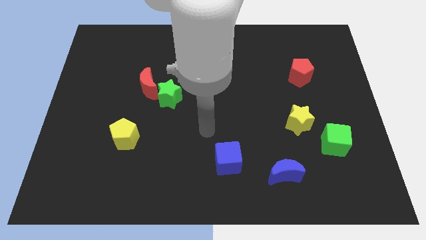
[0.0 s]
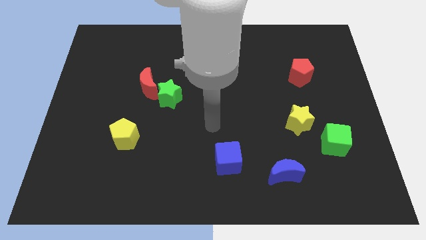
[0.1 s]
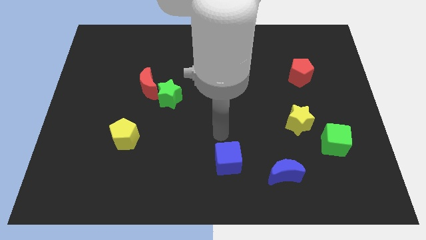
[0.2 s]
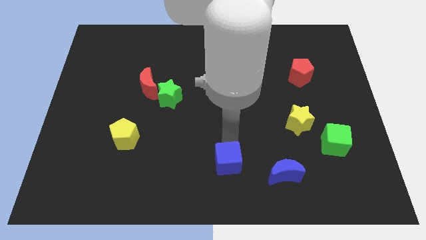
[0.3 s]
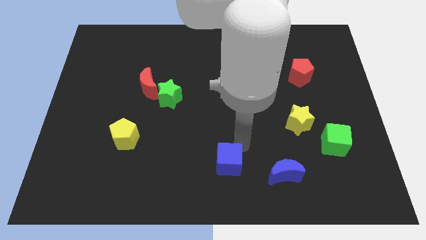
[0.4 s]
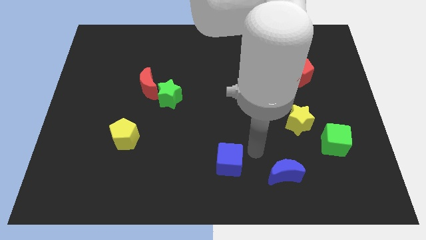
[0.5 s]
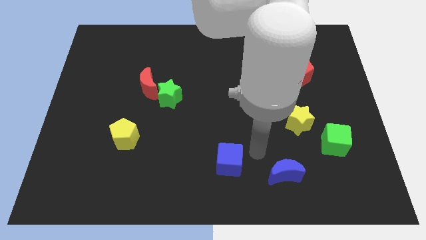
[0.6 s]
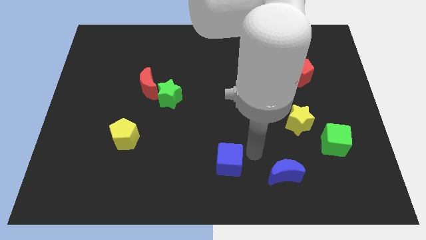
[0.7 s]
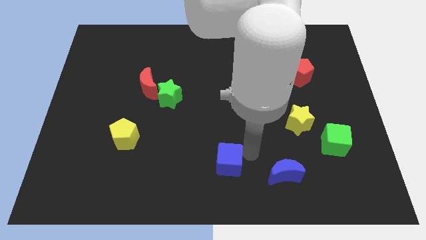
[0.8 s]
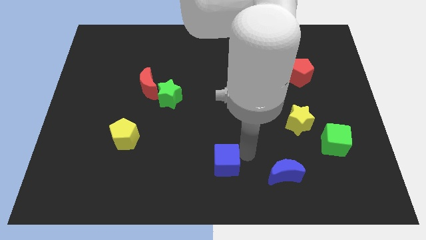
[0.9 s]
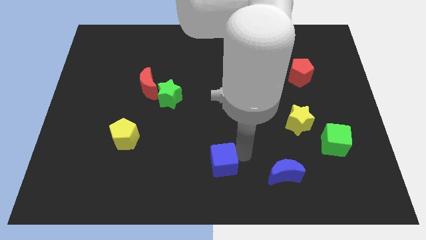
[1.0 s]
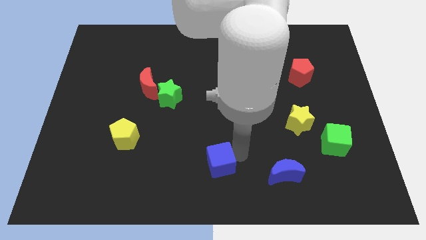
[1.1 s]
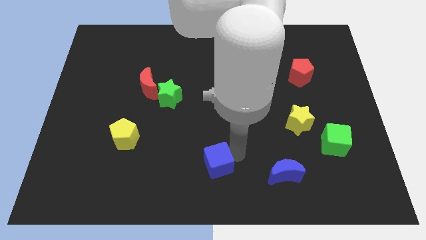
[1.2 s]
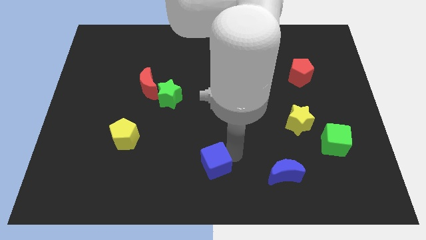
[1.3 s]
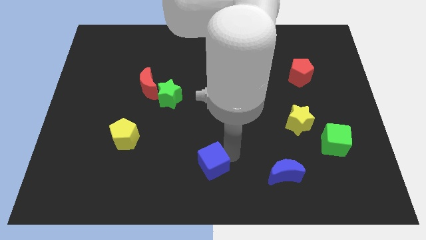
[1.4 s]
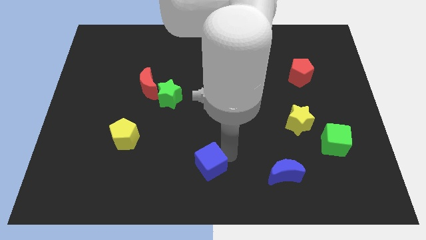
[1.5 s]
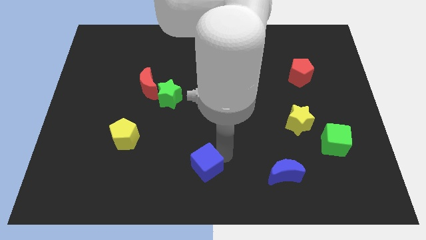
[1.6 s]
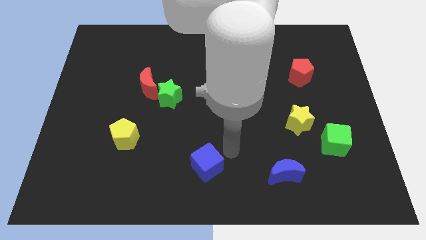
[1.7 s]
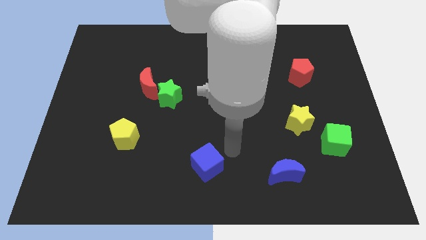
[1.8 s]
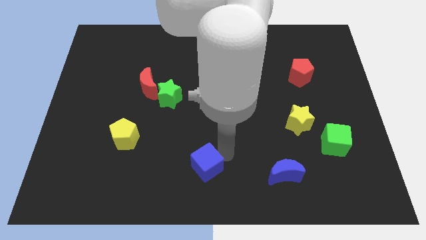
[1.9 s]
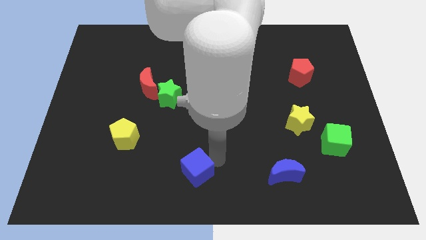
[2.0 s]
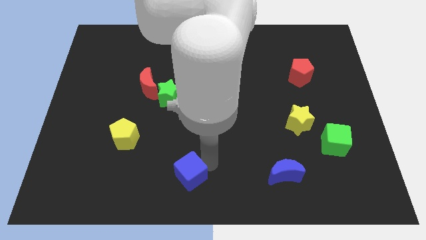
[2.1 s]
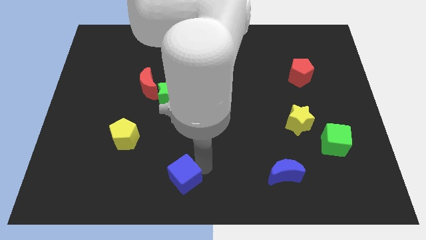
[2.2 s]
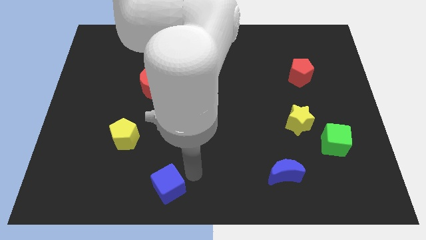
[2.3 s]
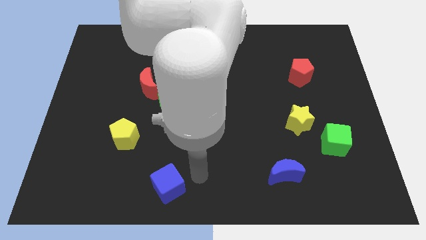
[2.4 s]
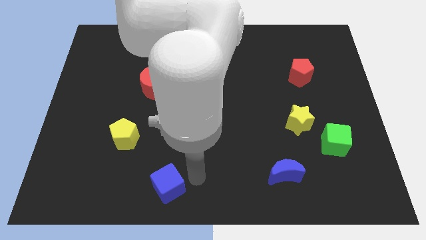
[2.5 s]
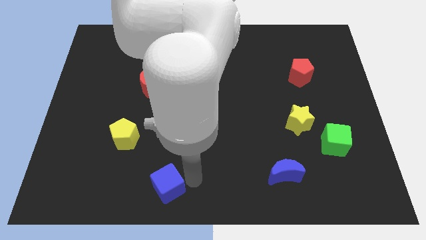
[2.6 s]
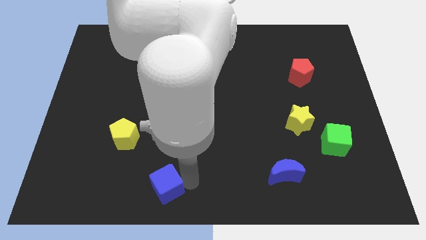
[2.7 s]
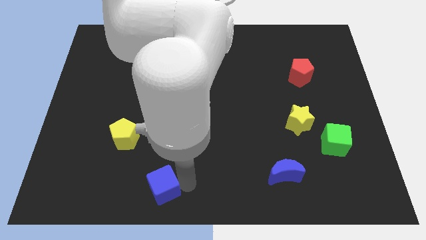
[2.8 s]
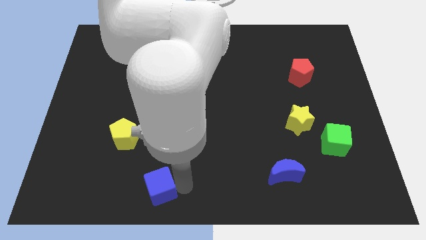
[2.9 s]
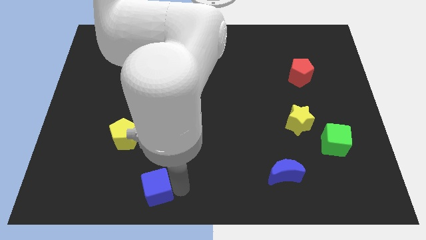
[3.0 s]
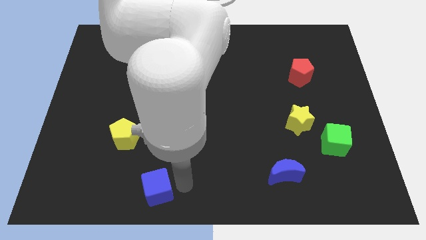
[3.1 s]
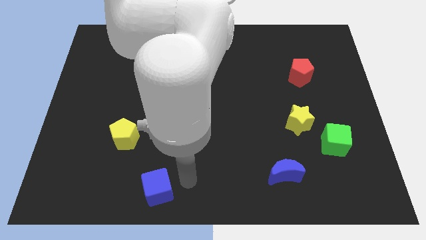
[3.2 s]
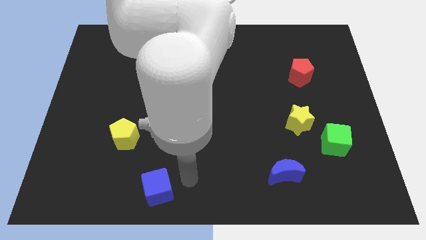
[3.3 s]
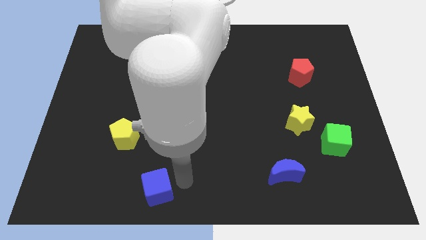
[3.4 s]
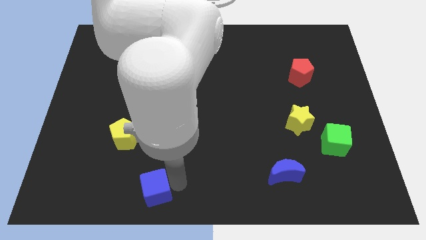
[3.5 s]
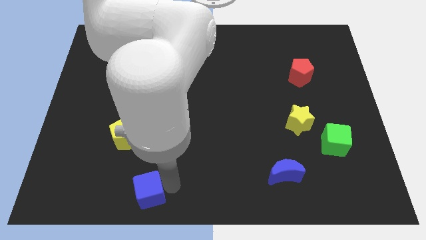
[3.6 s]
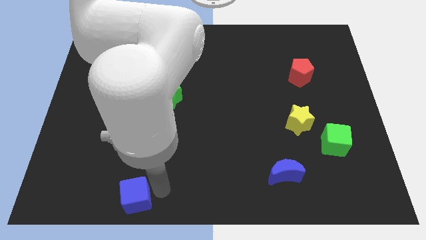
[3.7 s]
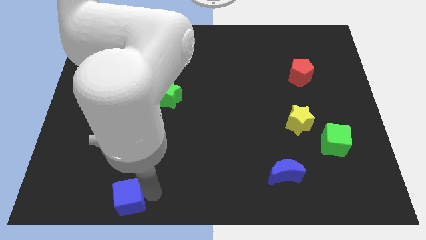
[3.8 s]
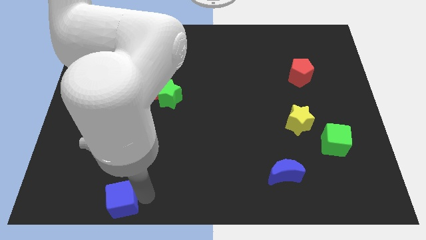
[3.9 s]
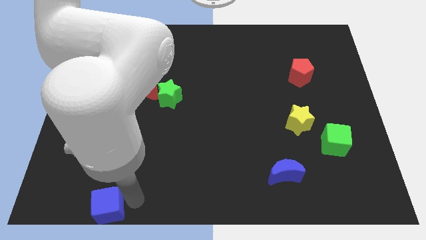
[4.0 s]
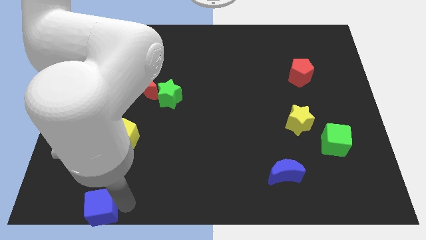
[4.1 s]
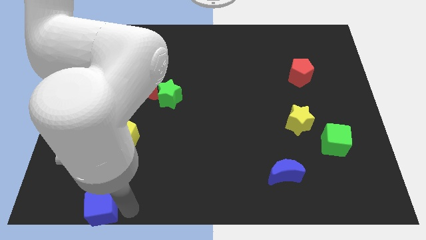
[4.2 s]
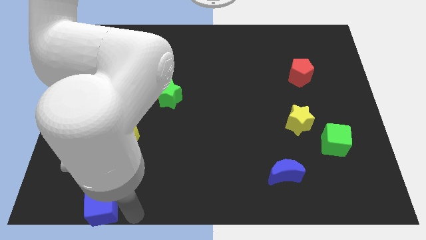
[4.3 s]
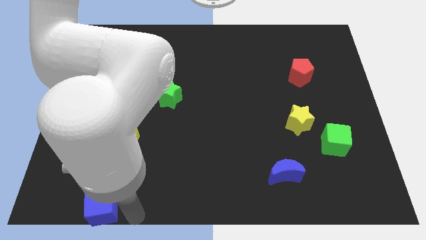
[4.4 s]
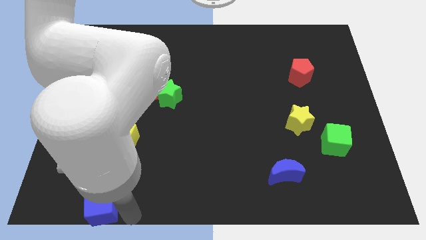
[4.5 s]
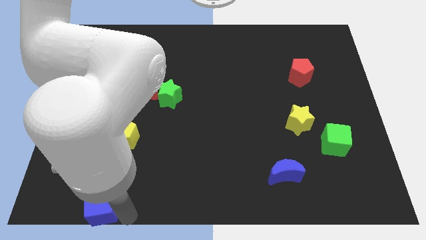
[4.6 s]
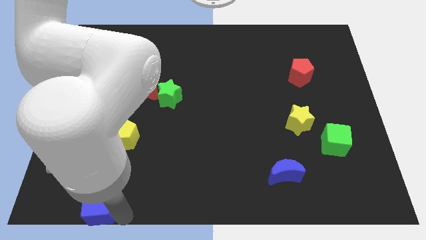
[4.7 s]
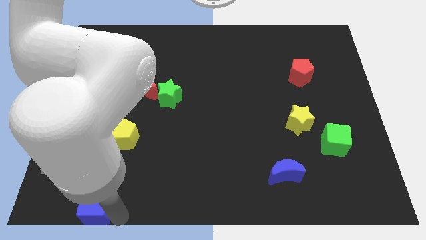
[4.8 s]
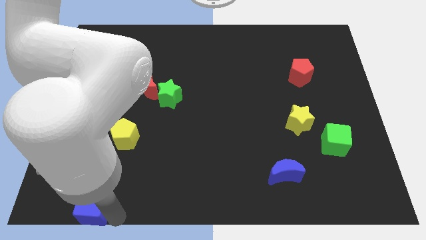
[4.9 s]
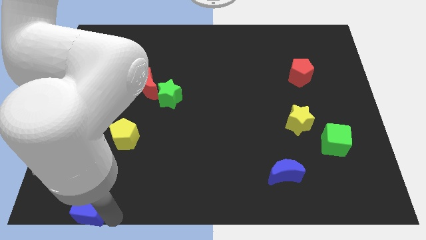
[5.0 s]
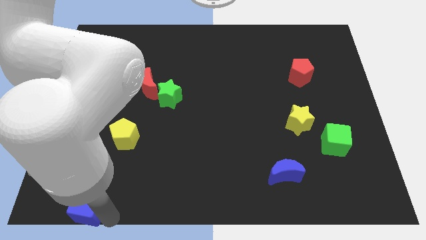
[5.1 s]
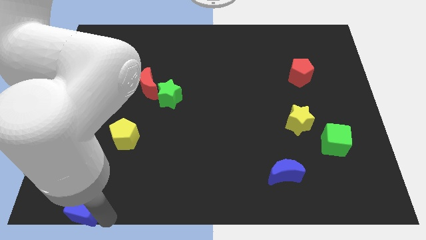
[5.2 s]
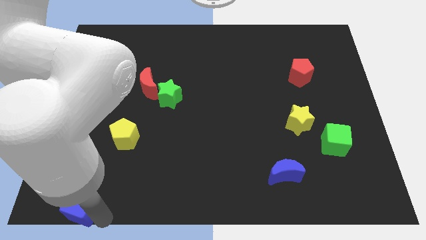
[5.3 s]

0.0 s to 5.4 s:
push the blue cube to the bottom left of the board

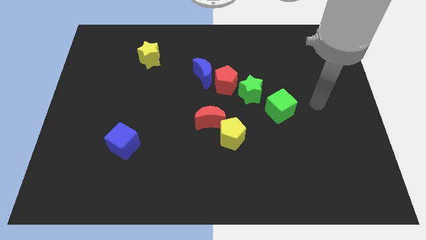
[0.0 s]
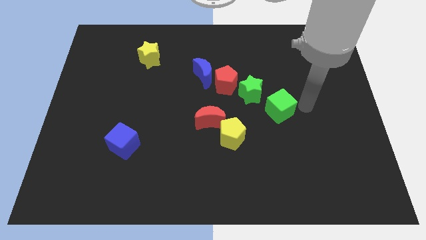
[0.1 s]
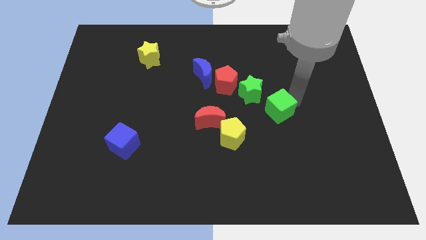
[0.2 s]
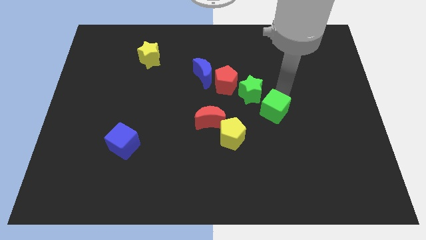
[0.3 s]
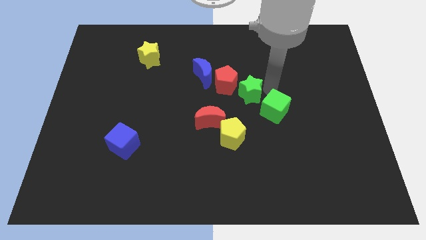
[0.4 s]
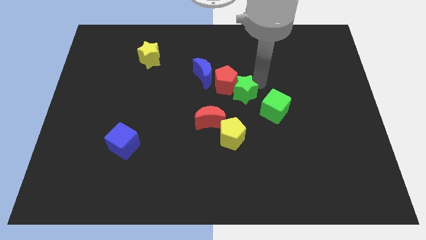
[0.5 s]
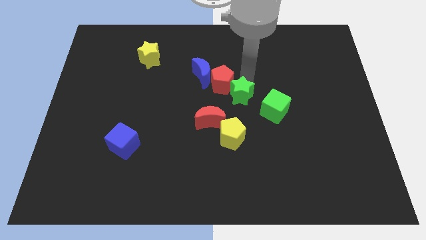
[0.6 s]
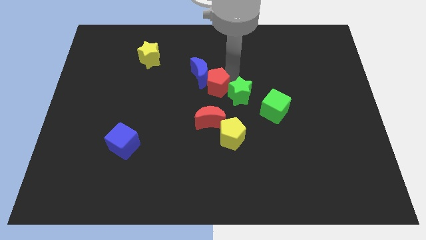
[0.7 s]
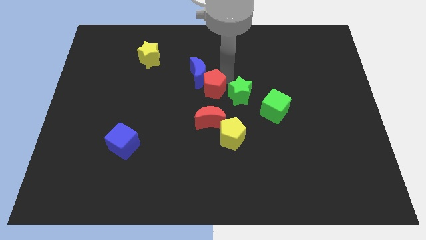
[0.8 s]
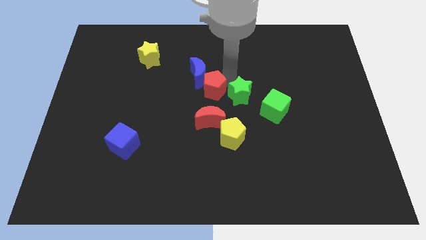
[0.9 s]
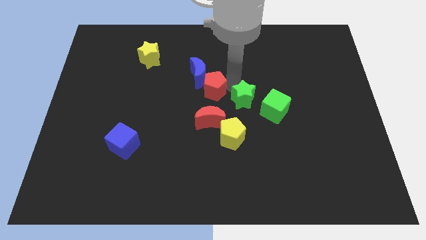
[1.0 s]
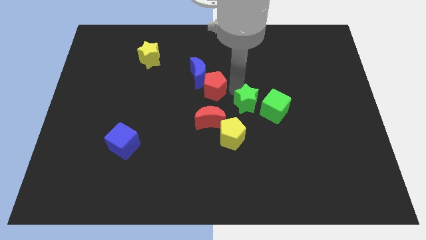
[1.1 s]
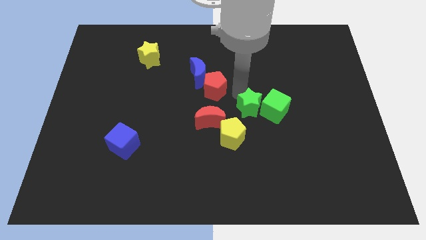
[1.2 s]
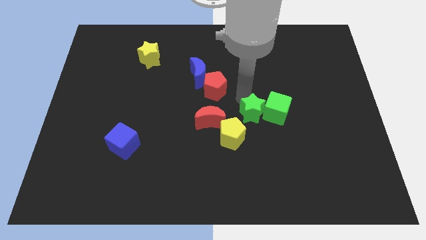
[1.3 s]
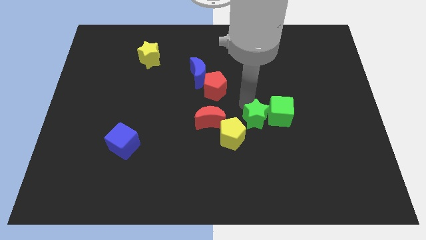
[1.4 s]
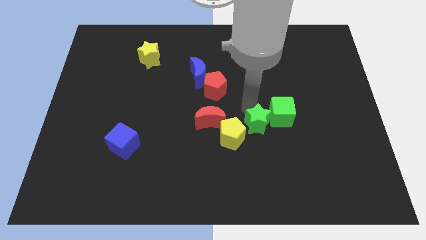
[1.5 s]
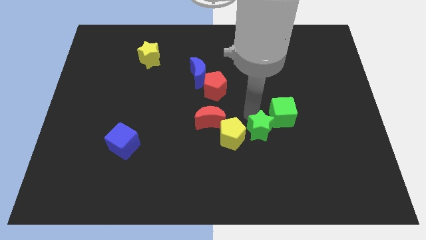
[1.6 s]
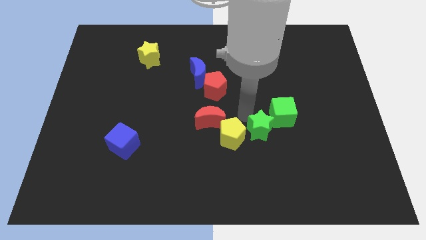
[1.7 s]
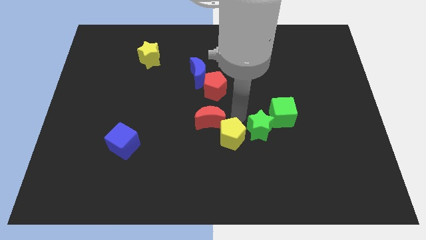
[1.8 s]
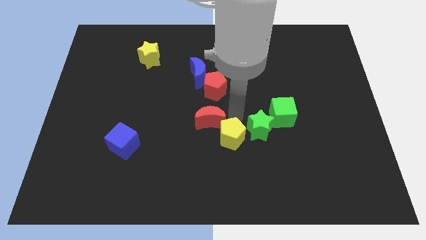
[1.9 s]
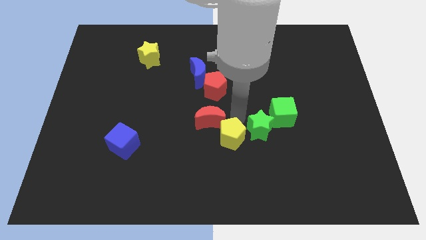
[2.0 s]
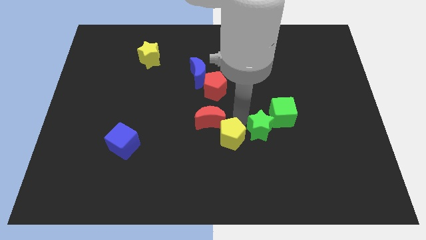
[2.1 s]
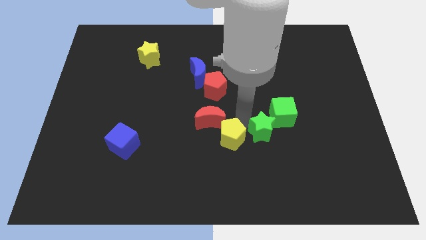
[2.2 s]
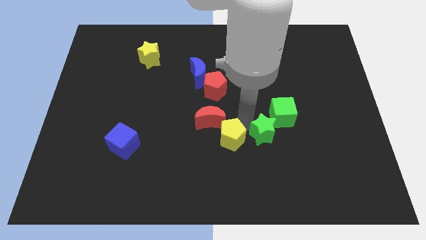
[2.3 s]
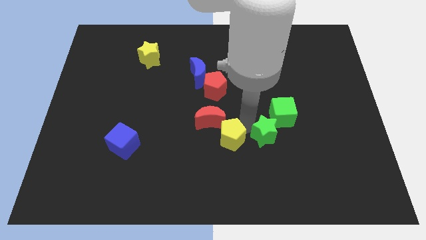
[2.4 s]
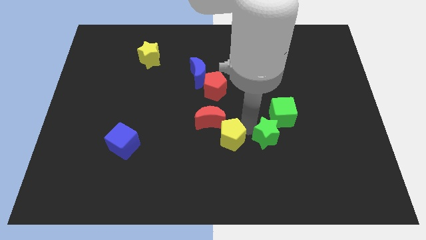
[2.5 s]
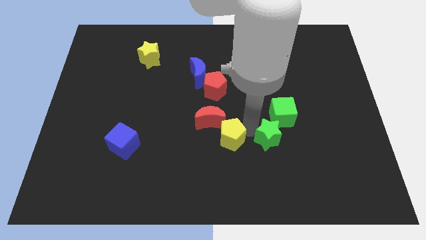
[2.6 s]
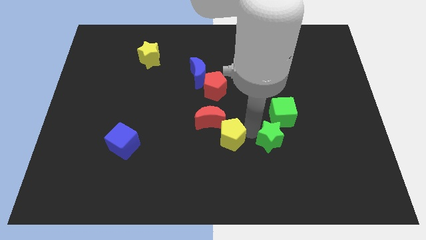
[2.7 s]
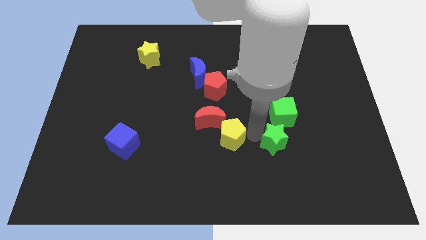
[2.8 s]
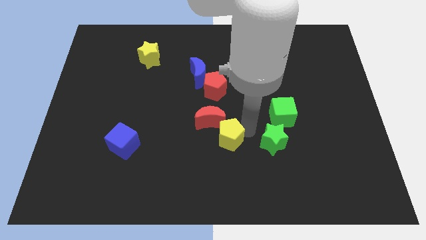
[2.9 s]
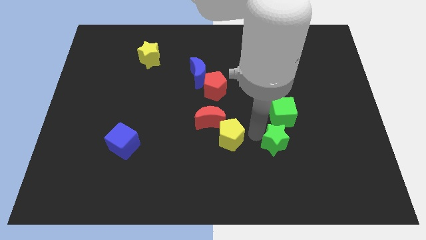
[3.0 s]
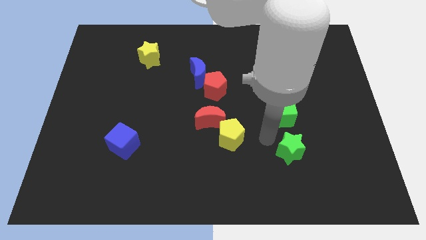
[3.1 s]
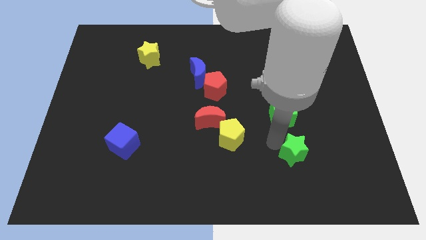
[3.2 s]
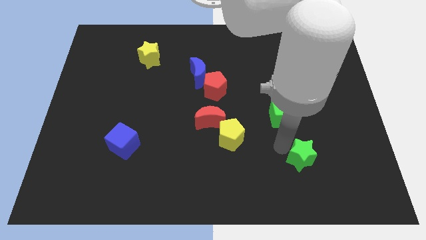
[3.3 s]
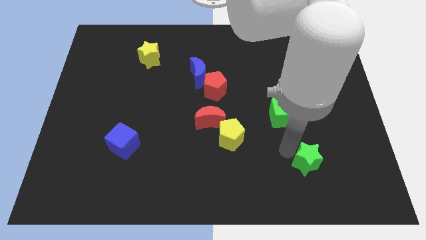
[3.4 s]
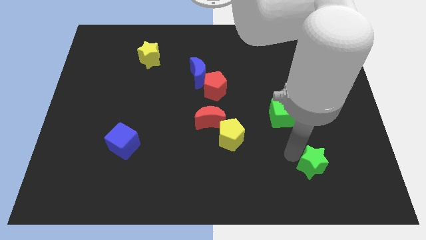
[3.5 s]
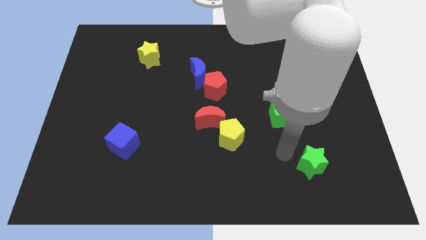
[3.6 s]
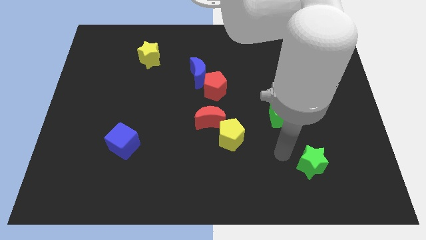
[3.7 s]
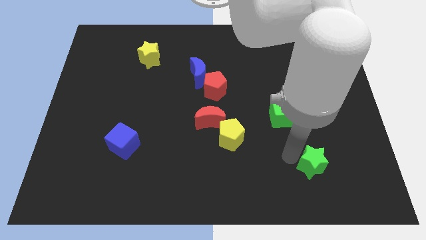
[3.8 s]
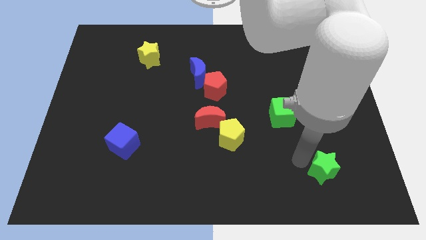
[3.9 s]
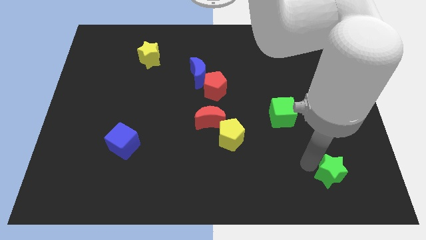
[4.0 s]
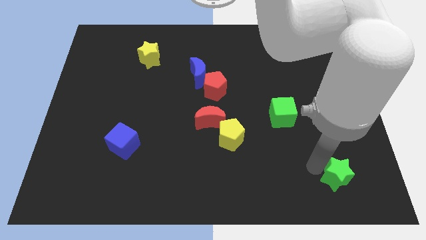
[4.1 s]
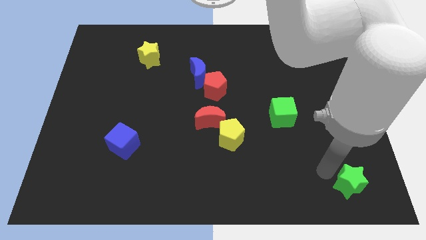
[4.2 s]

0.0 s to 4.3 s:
slide the green star to the lower right corner
